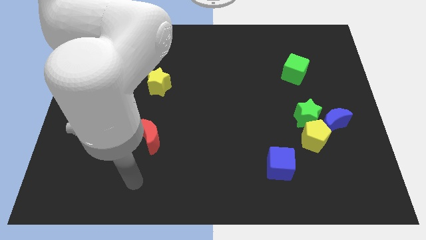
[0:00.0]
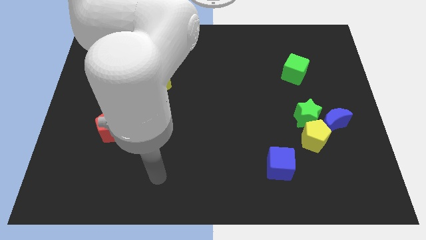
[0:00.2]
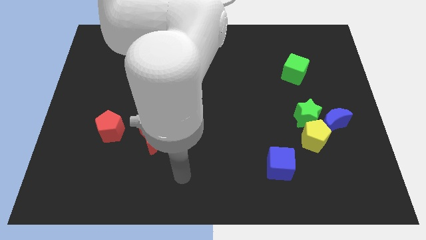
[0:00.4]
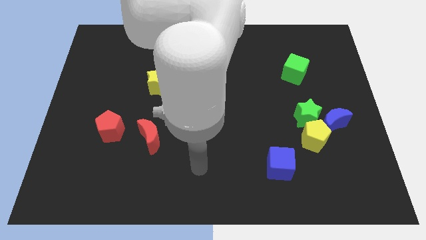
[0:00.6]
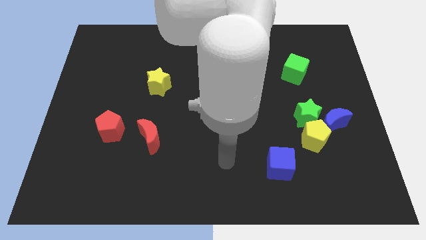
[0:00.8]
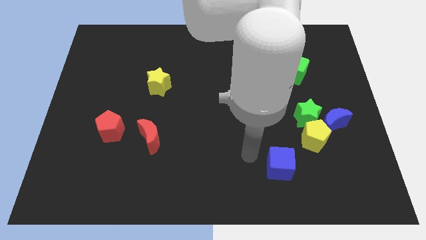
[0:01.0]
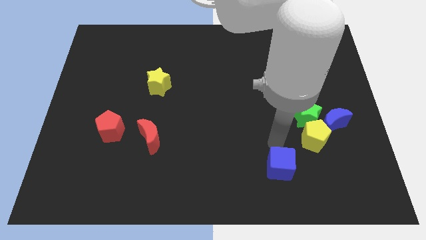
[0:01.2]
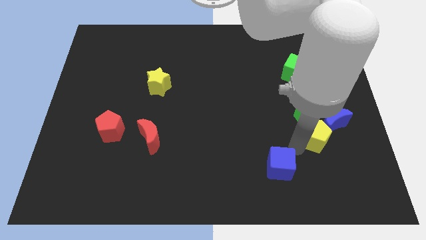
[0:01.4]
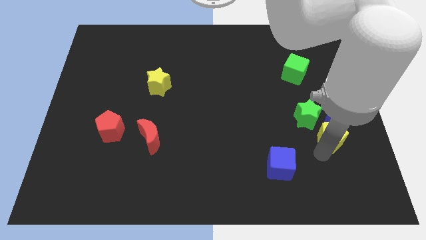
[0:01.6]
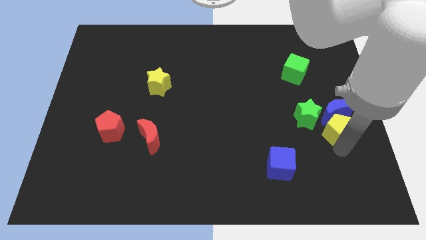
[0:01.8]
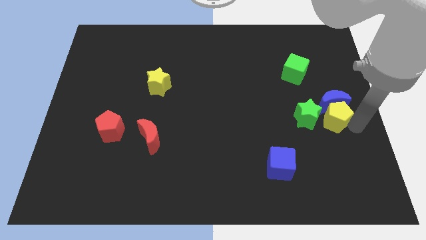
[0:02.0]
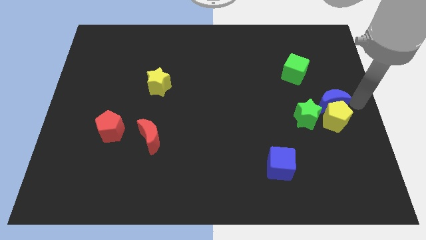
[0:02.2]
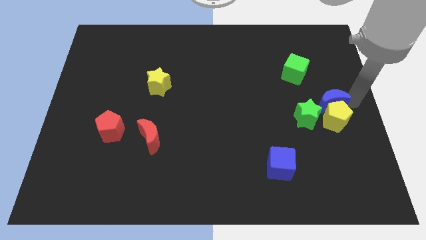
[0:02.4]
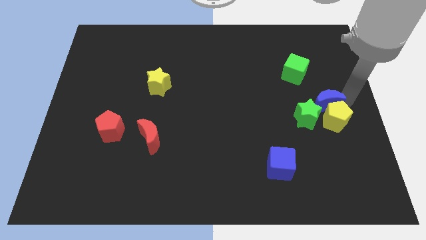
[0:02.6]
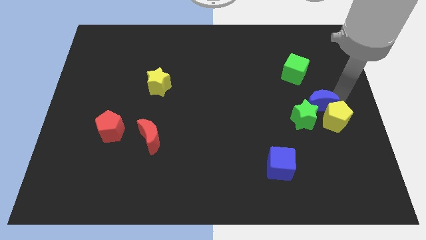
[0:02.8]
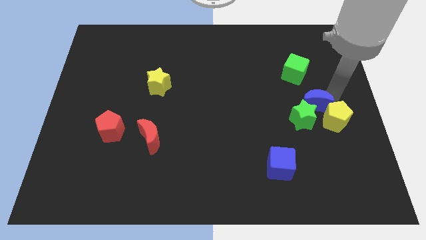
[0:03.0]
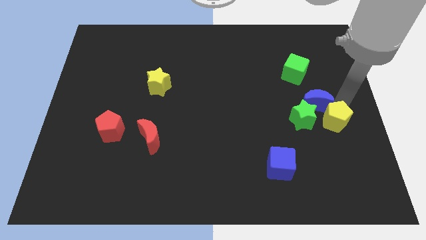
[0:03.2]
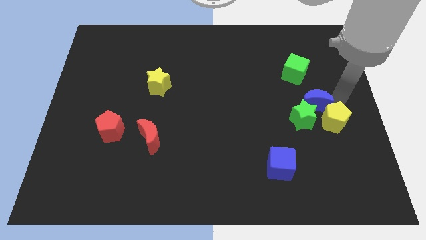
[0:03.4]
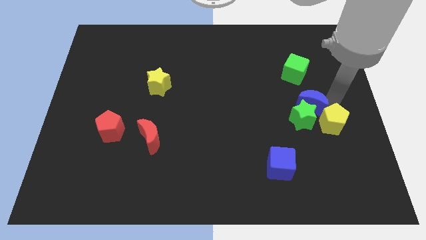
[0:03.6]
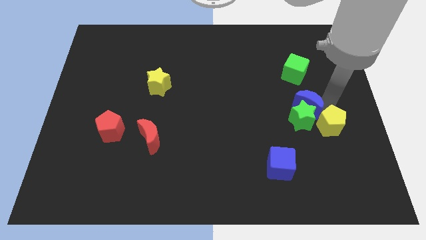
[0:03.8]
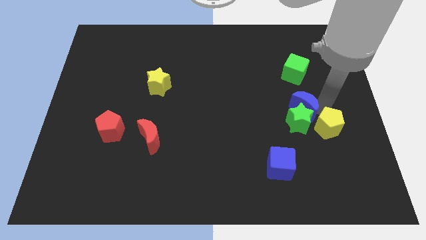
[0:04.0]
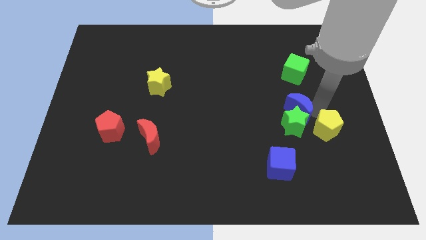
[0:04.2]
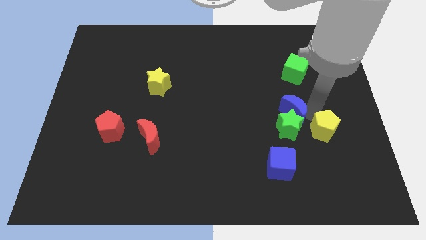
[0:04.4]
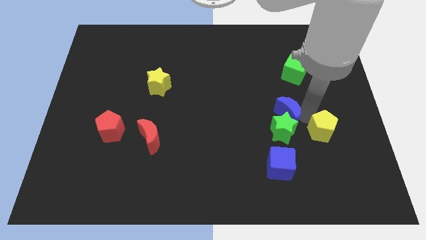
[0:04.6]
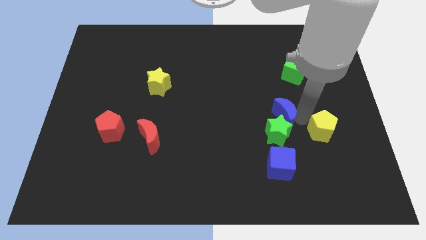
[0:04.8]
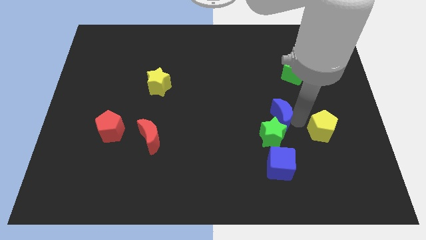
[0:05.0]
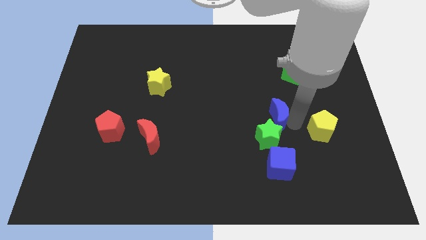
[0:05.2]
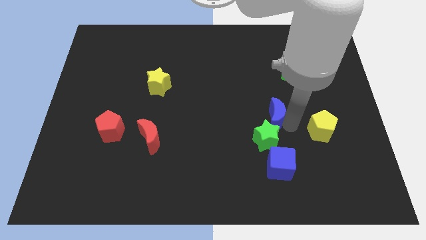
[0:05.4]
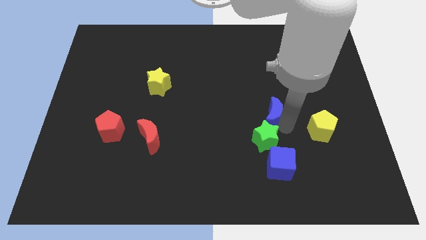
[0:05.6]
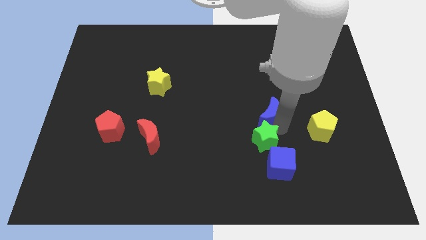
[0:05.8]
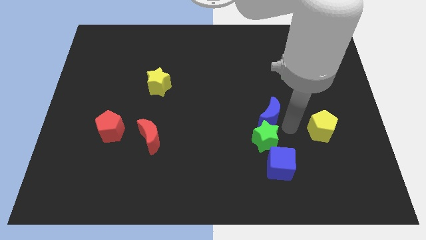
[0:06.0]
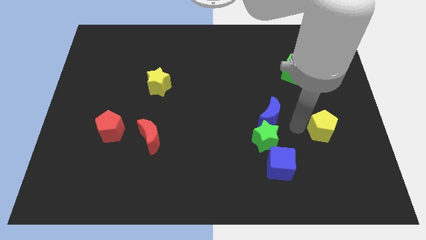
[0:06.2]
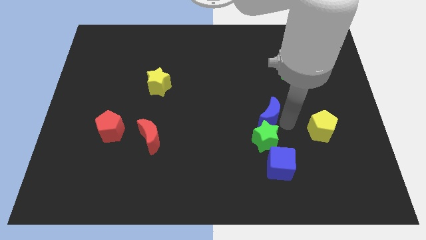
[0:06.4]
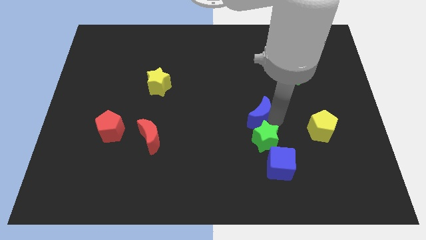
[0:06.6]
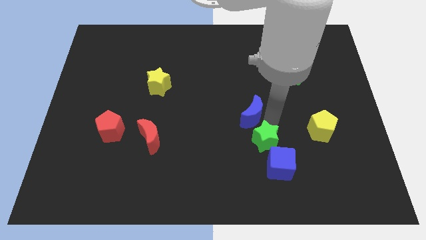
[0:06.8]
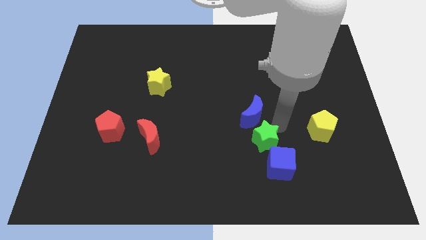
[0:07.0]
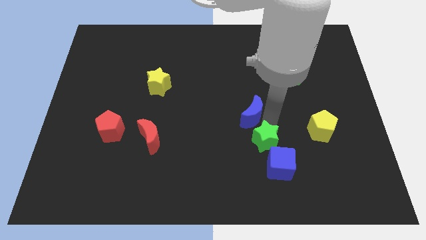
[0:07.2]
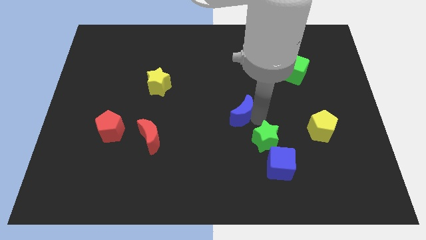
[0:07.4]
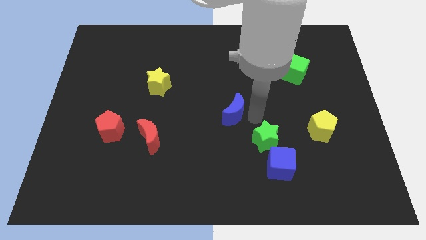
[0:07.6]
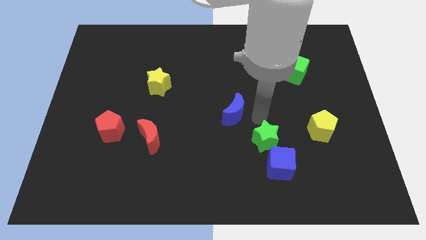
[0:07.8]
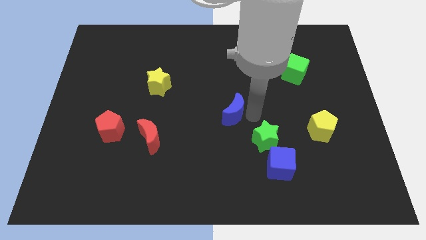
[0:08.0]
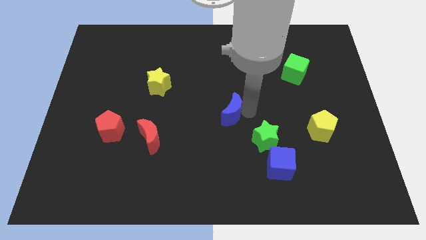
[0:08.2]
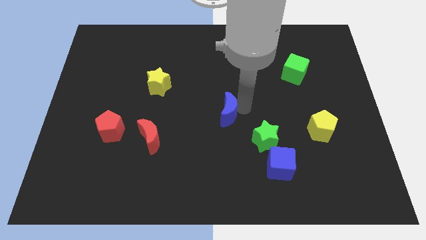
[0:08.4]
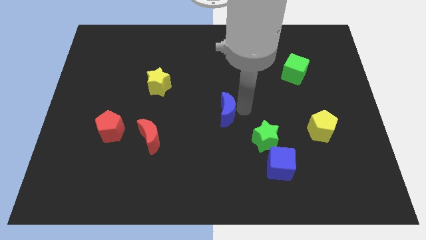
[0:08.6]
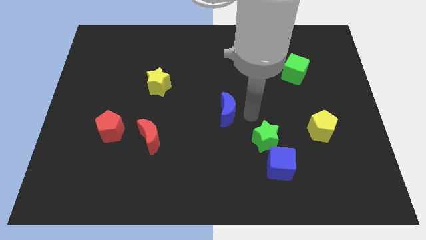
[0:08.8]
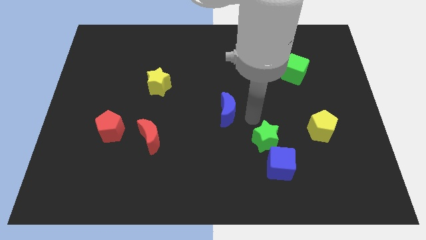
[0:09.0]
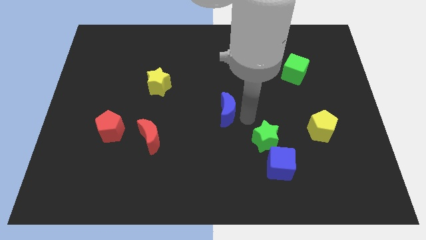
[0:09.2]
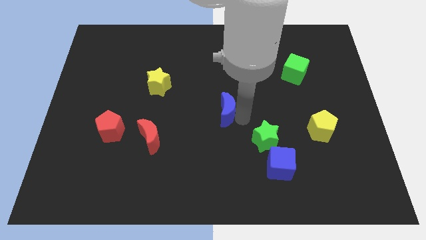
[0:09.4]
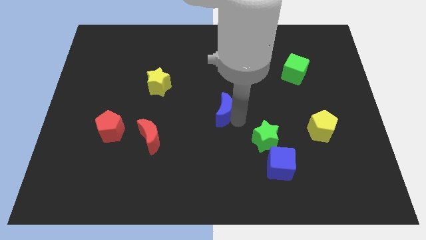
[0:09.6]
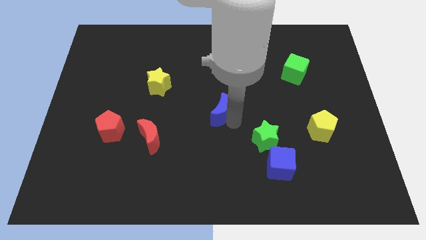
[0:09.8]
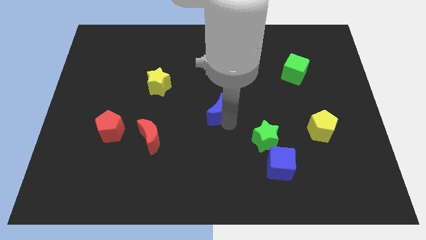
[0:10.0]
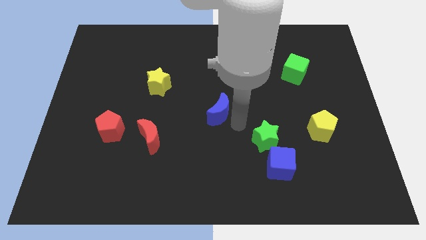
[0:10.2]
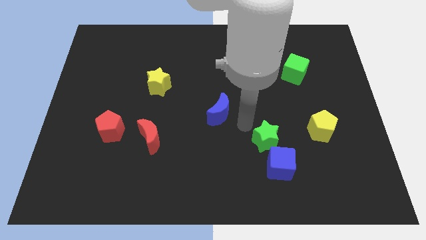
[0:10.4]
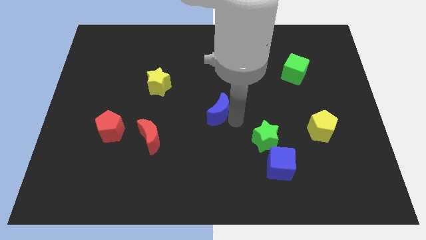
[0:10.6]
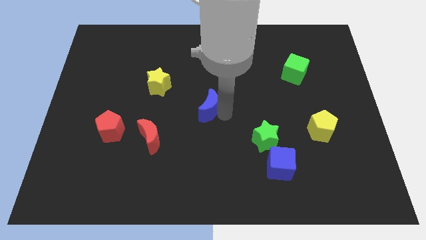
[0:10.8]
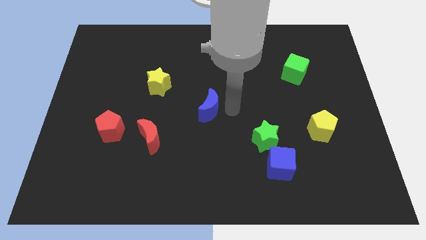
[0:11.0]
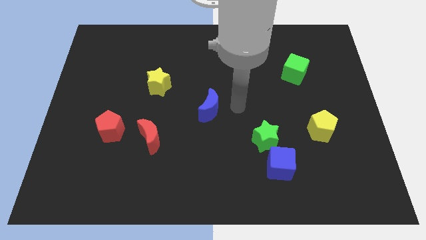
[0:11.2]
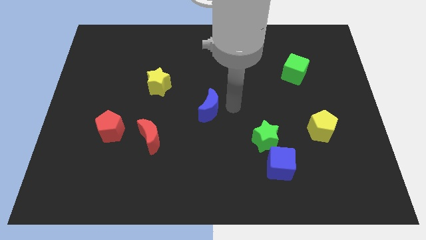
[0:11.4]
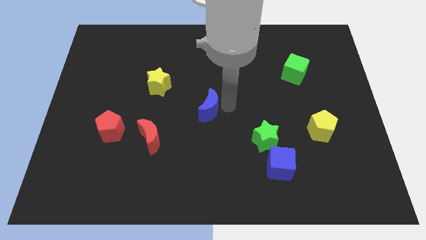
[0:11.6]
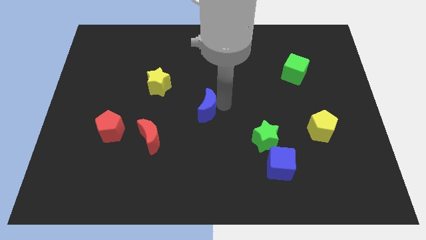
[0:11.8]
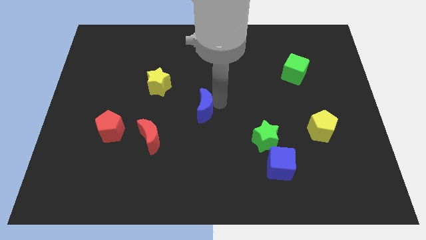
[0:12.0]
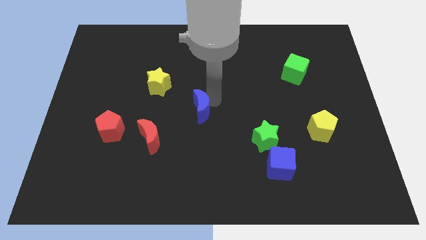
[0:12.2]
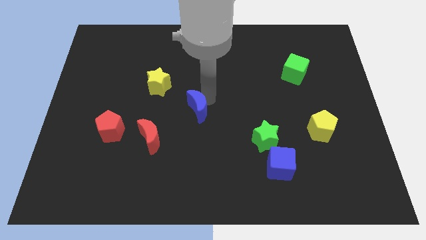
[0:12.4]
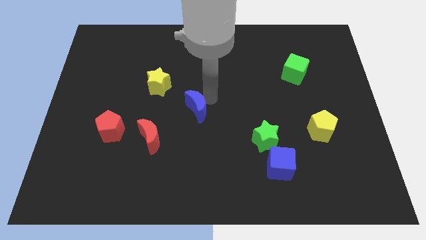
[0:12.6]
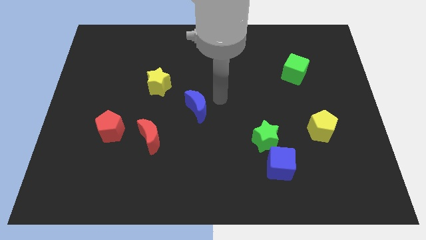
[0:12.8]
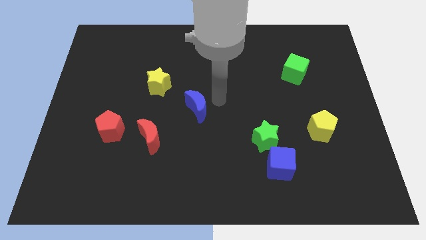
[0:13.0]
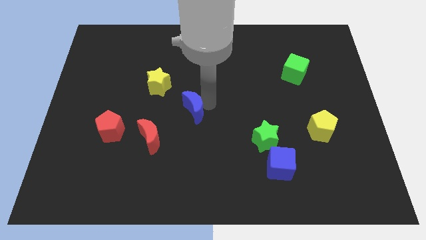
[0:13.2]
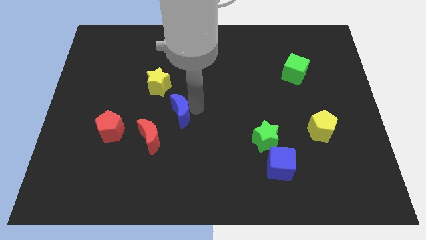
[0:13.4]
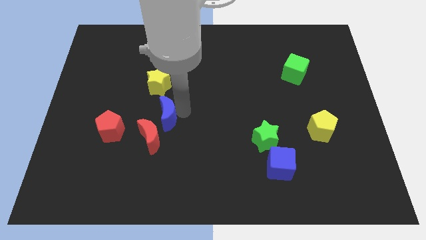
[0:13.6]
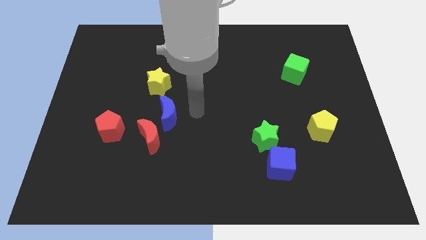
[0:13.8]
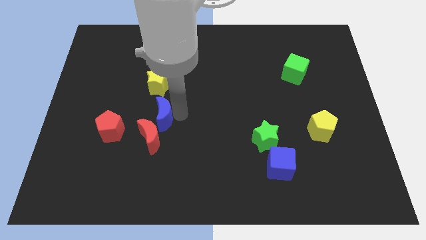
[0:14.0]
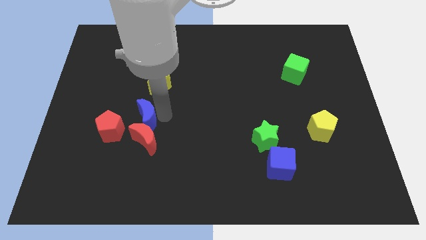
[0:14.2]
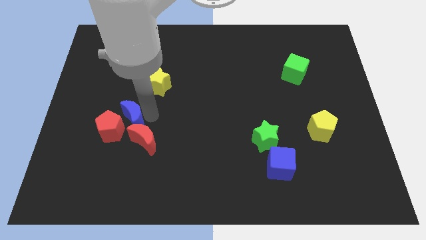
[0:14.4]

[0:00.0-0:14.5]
push the blue moon next to the red pentagon

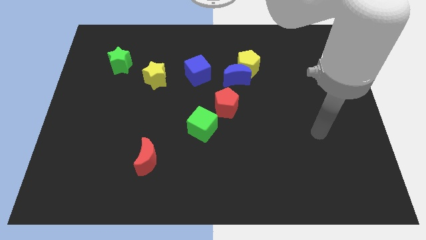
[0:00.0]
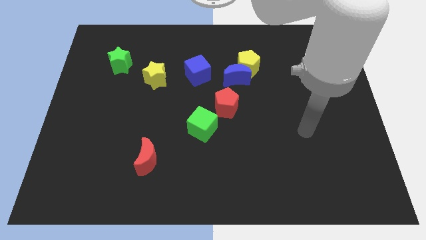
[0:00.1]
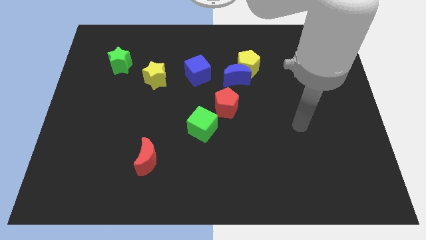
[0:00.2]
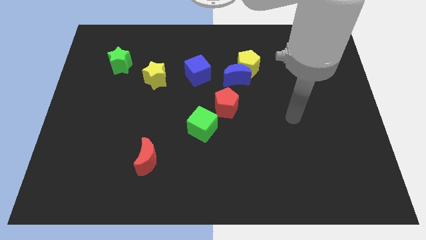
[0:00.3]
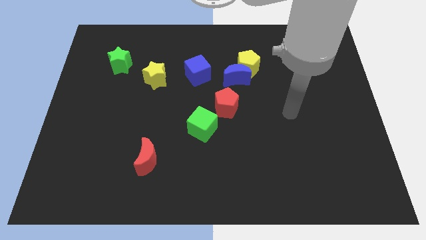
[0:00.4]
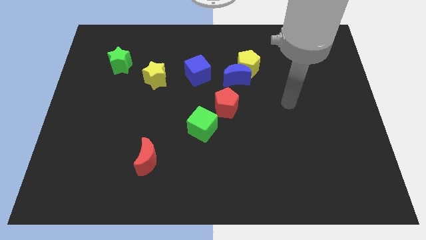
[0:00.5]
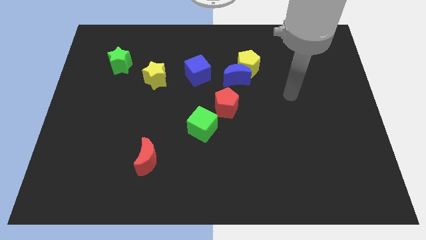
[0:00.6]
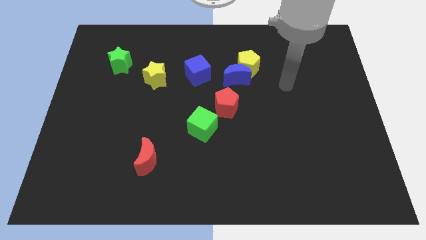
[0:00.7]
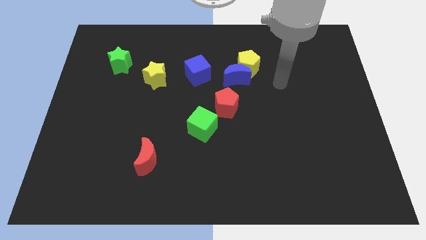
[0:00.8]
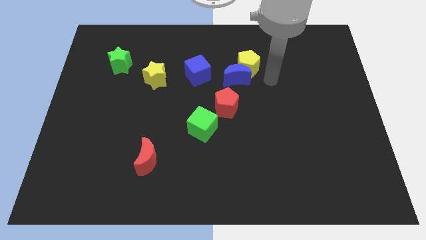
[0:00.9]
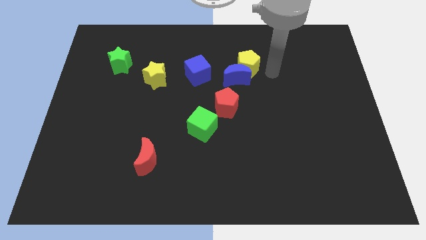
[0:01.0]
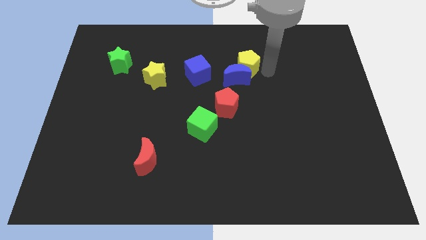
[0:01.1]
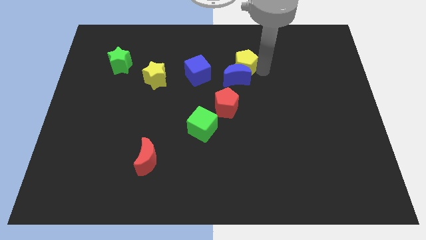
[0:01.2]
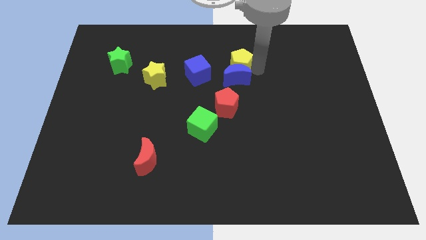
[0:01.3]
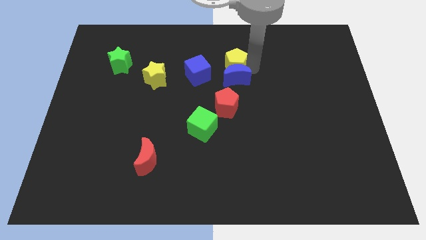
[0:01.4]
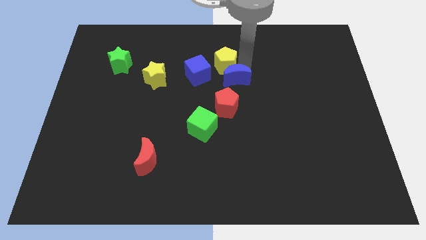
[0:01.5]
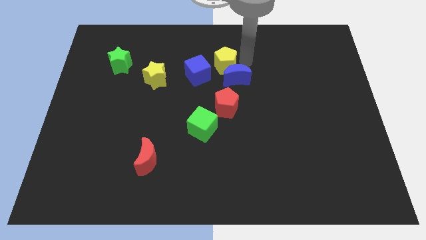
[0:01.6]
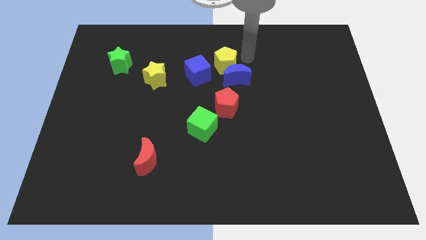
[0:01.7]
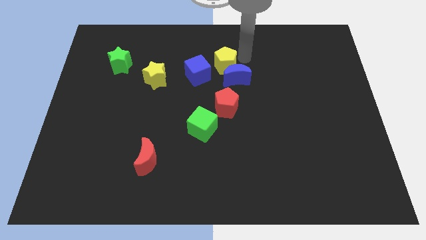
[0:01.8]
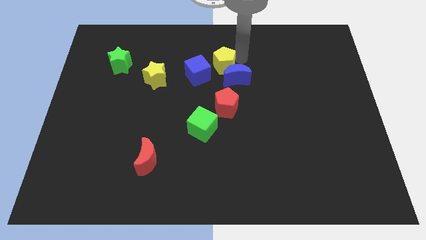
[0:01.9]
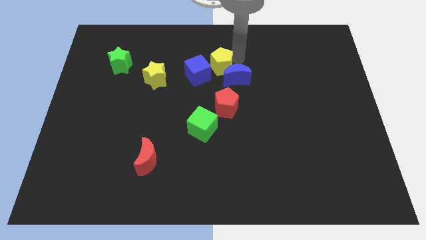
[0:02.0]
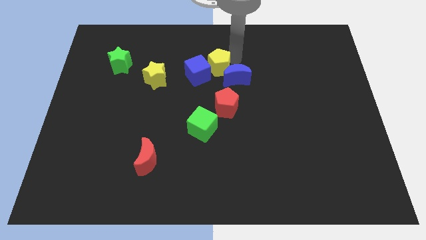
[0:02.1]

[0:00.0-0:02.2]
slide the yellow pentagon to the blue cube
